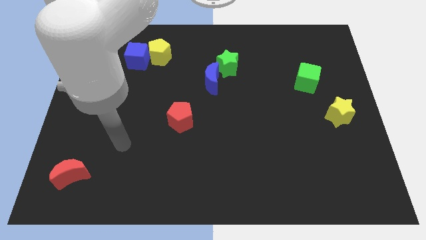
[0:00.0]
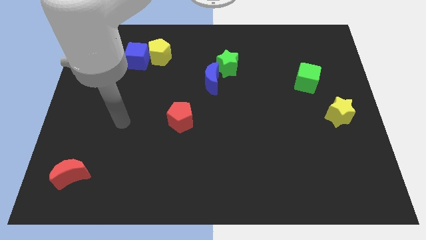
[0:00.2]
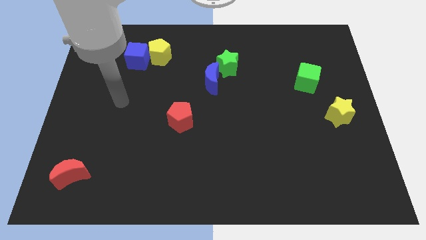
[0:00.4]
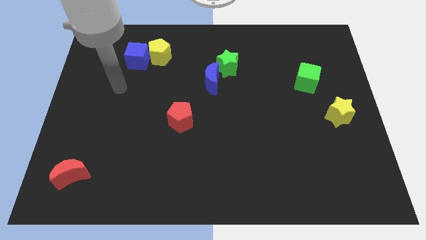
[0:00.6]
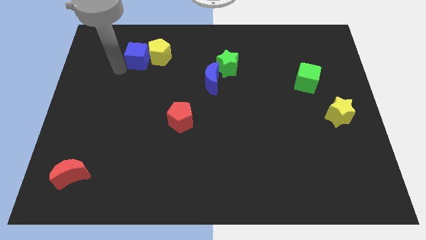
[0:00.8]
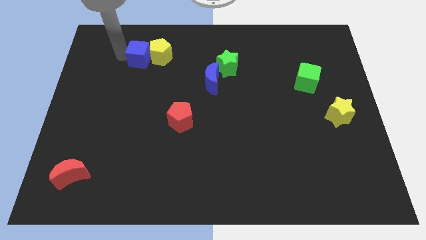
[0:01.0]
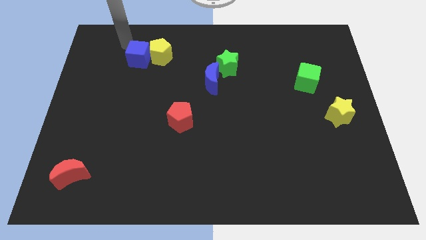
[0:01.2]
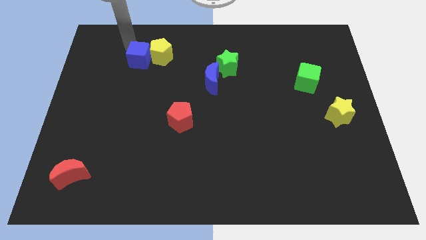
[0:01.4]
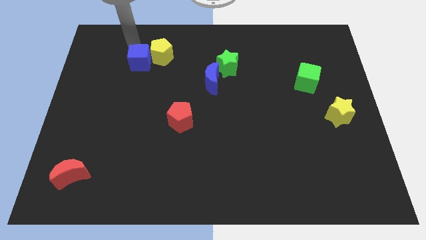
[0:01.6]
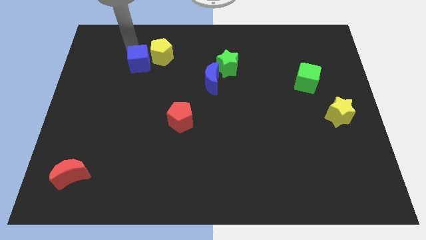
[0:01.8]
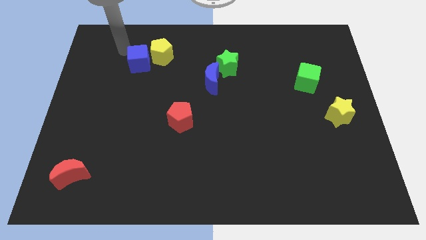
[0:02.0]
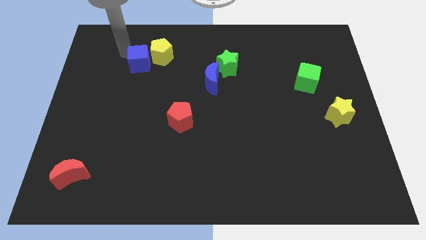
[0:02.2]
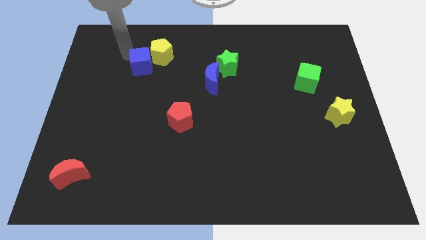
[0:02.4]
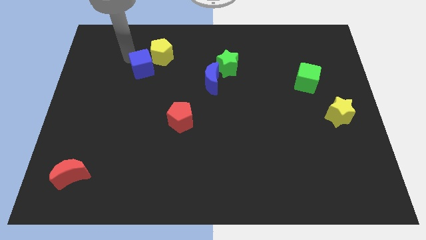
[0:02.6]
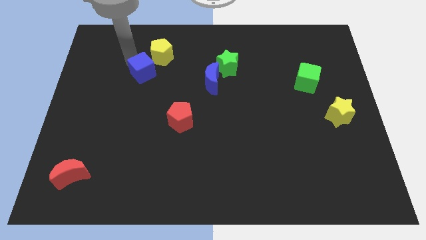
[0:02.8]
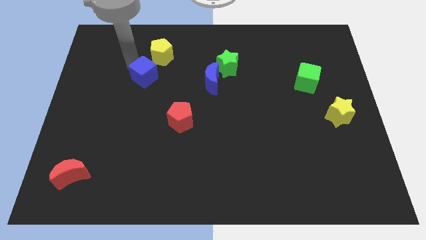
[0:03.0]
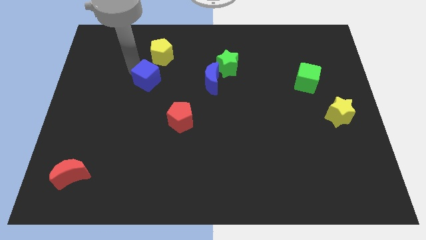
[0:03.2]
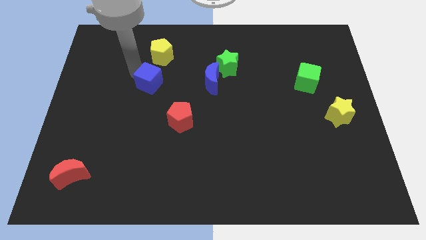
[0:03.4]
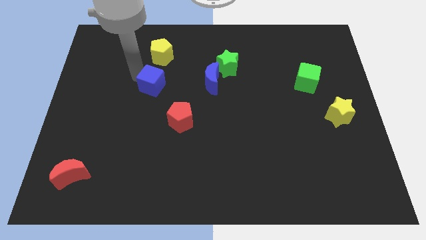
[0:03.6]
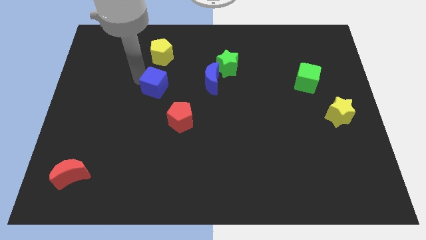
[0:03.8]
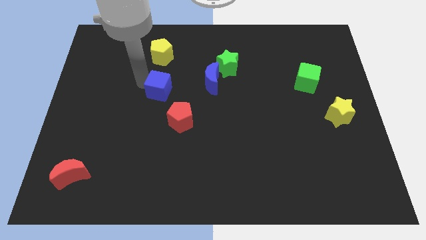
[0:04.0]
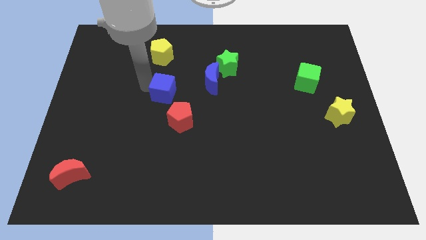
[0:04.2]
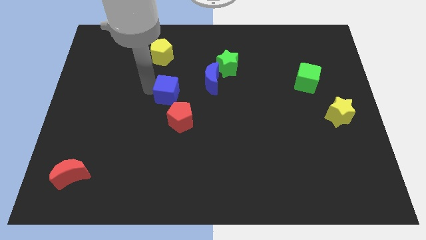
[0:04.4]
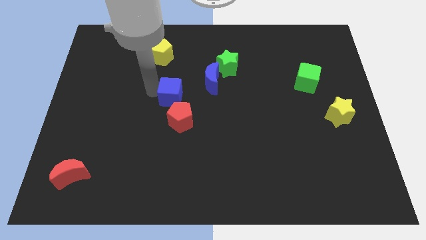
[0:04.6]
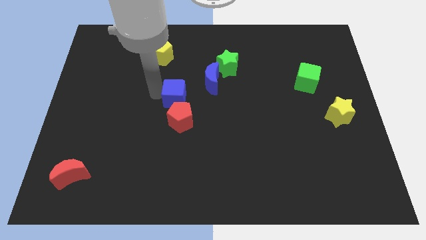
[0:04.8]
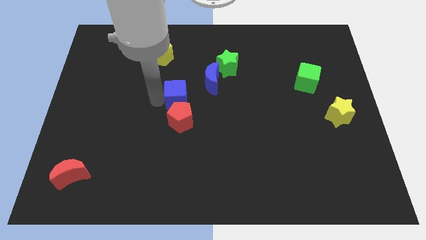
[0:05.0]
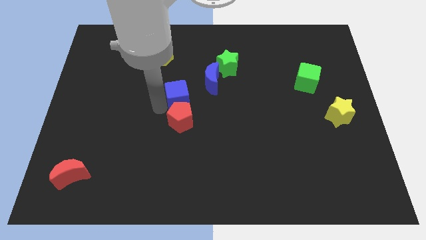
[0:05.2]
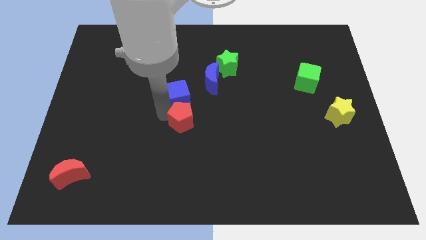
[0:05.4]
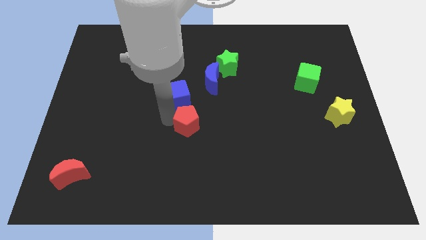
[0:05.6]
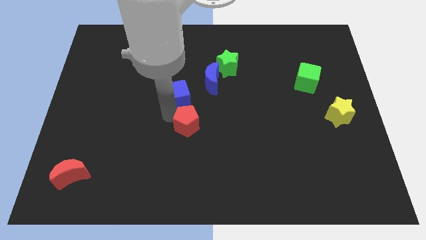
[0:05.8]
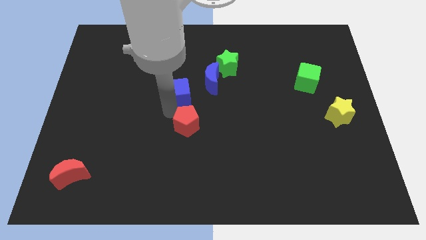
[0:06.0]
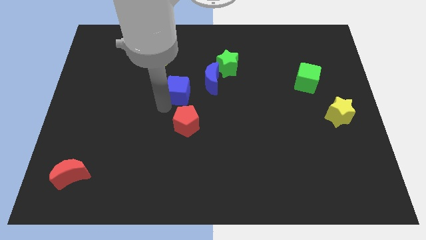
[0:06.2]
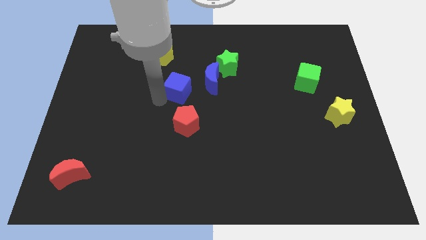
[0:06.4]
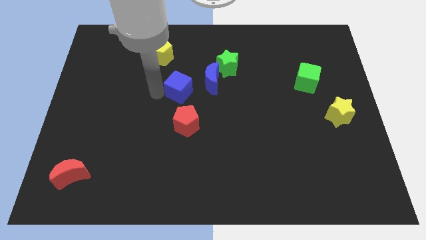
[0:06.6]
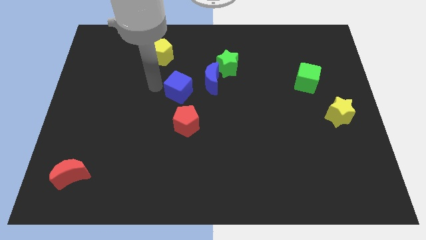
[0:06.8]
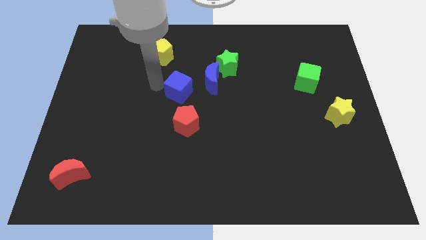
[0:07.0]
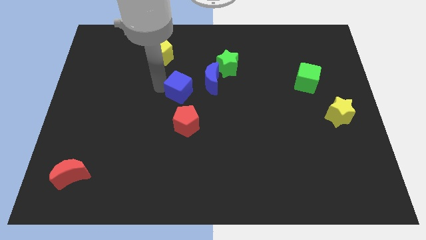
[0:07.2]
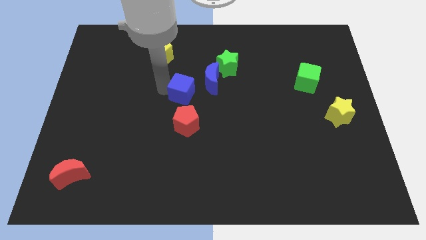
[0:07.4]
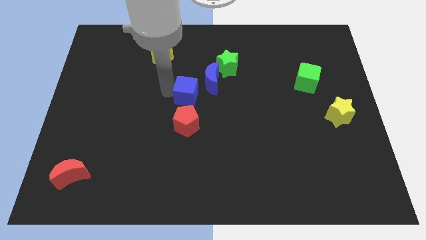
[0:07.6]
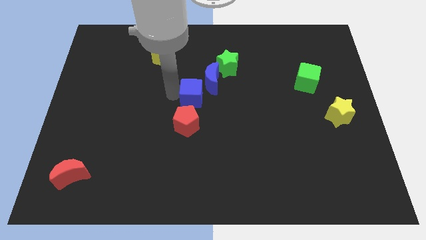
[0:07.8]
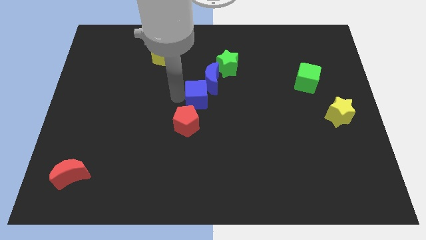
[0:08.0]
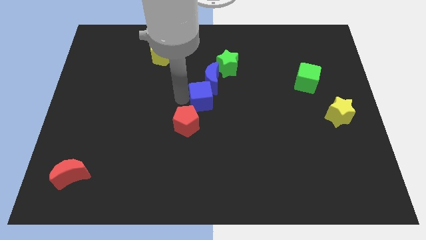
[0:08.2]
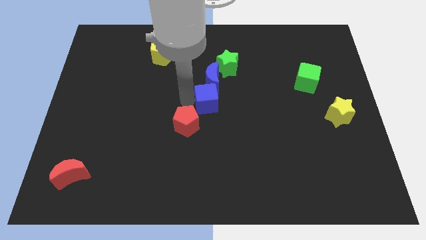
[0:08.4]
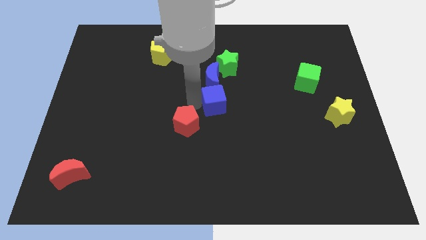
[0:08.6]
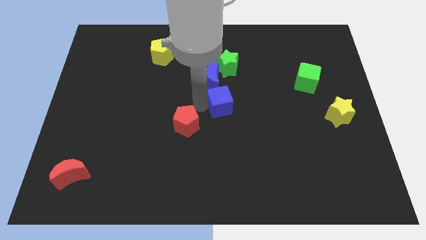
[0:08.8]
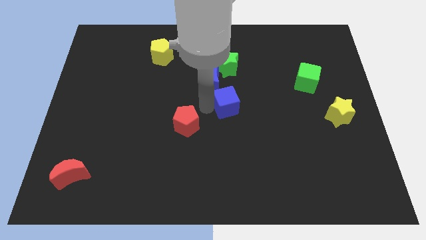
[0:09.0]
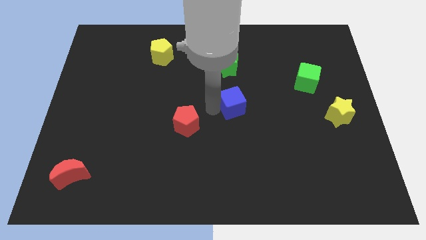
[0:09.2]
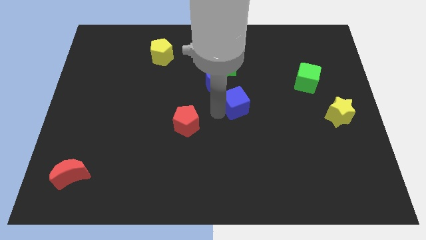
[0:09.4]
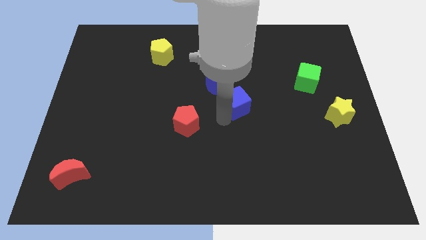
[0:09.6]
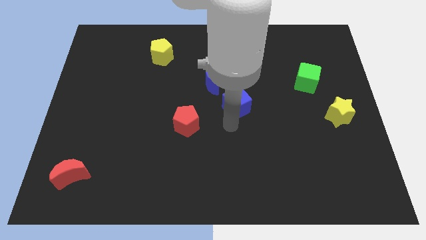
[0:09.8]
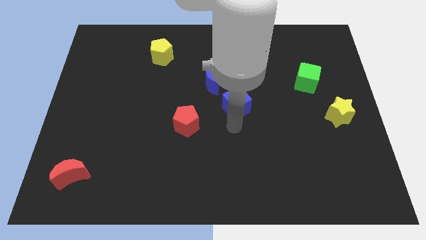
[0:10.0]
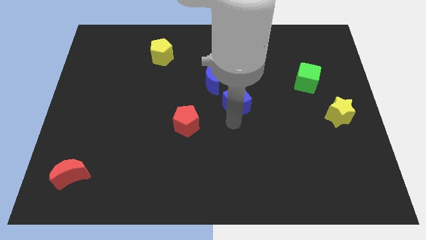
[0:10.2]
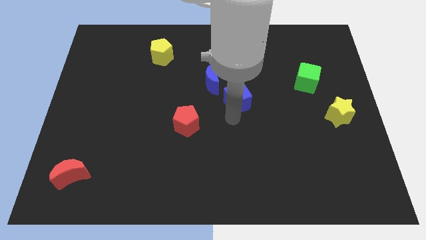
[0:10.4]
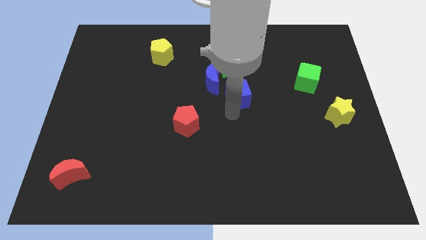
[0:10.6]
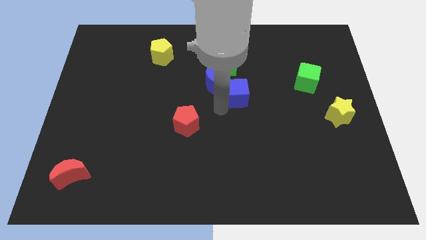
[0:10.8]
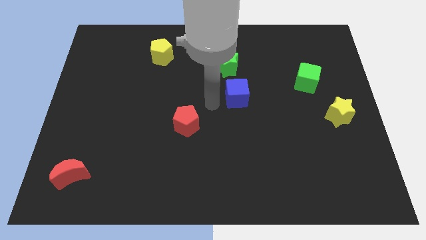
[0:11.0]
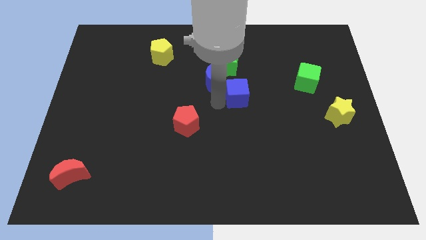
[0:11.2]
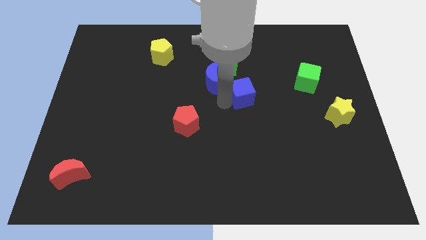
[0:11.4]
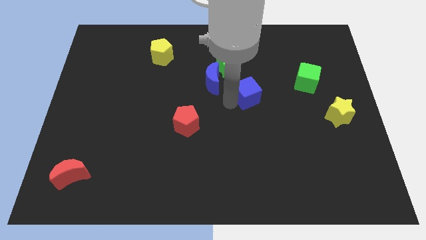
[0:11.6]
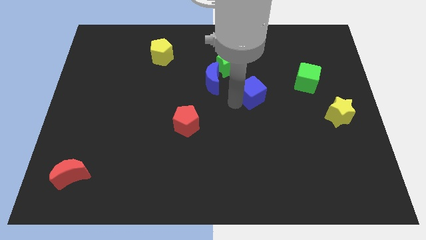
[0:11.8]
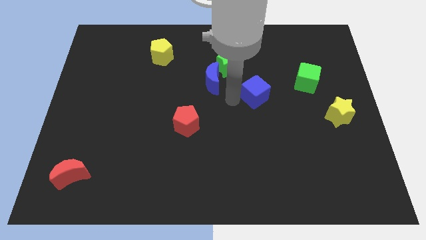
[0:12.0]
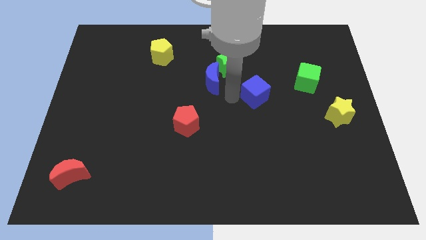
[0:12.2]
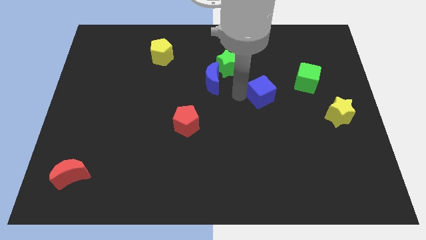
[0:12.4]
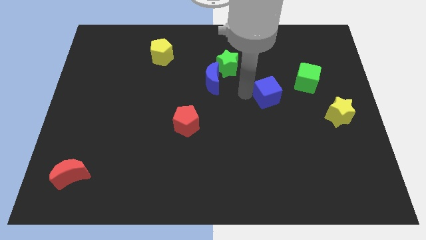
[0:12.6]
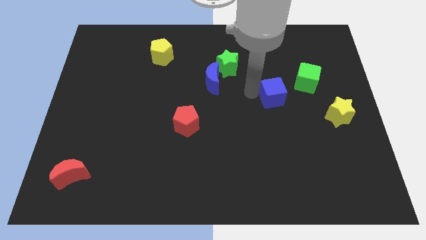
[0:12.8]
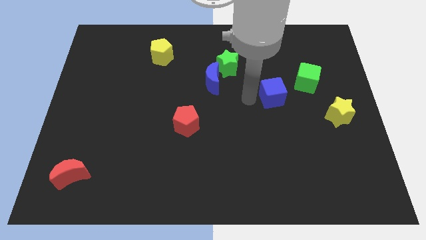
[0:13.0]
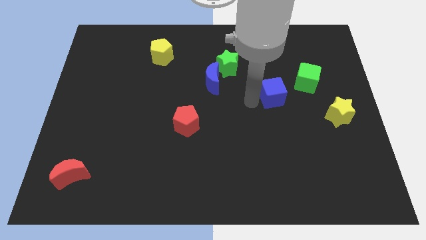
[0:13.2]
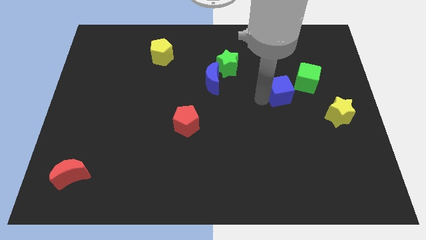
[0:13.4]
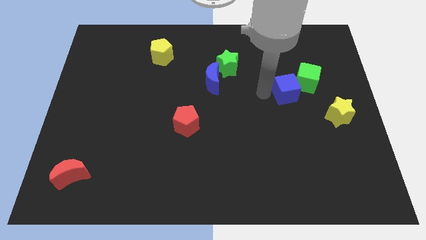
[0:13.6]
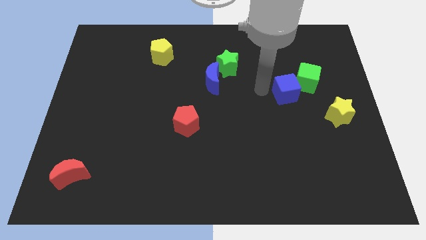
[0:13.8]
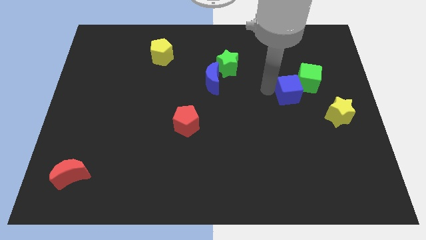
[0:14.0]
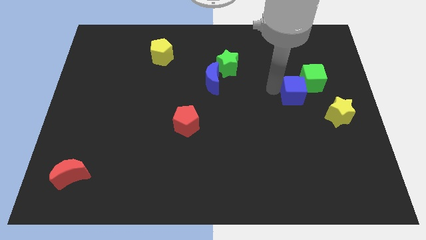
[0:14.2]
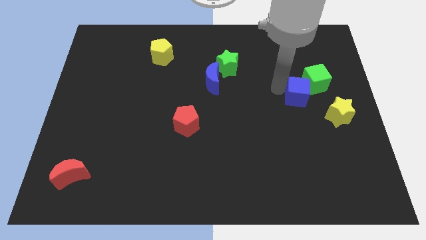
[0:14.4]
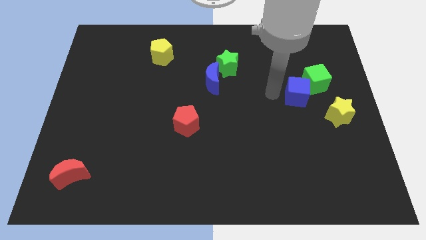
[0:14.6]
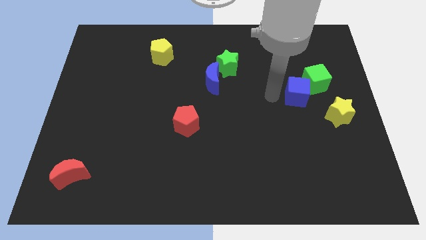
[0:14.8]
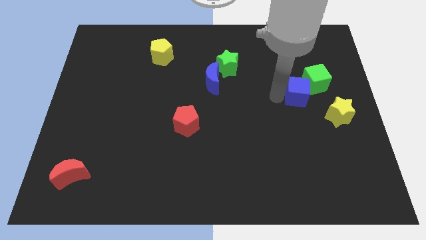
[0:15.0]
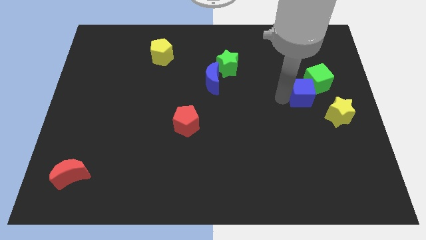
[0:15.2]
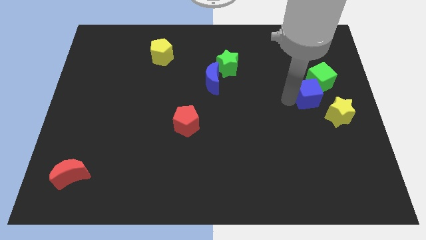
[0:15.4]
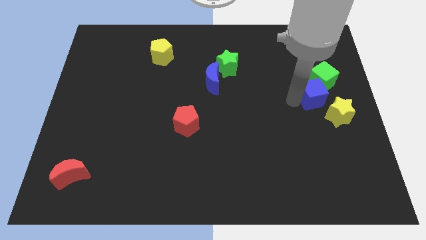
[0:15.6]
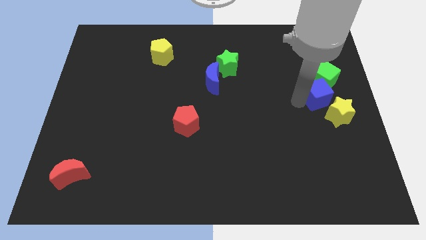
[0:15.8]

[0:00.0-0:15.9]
push the blue cube to the right side of the board
